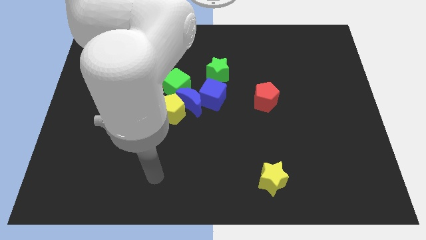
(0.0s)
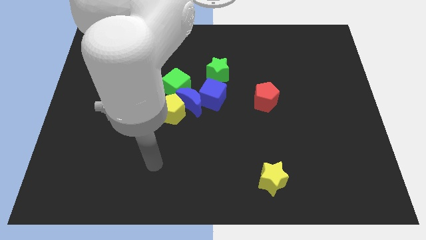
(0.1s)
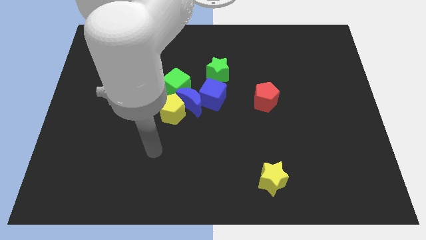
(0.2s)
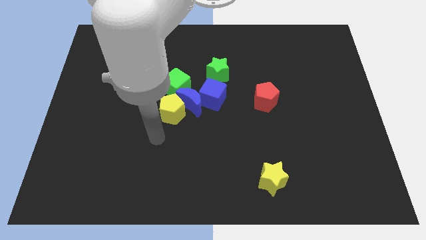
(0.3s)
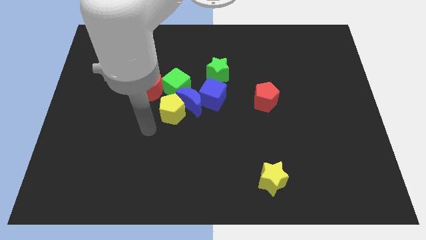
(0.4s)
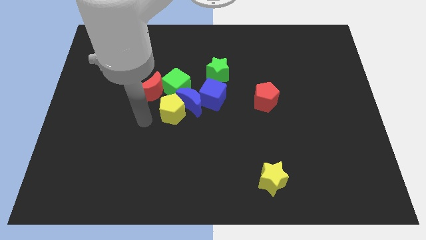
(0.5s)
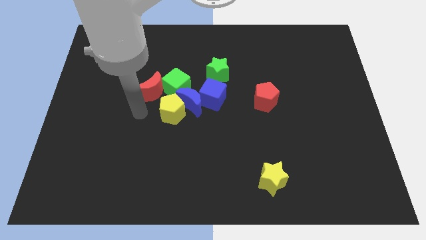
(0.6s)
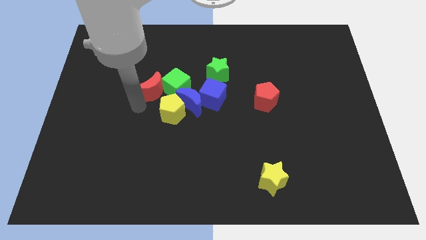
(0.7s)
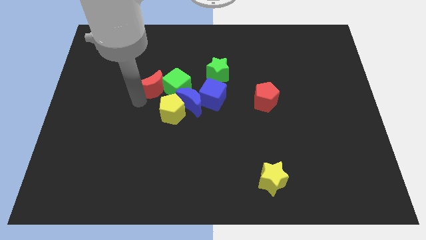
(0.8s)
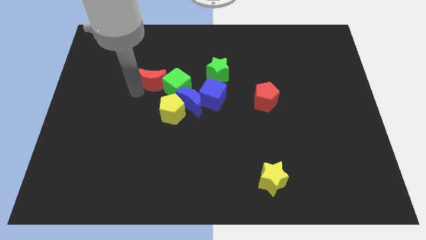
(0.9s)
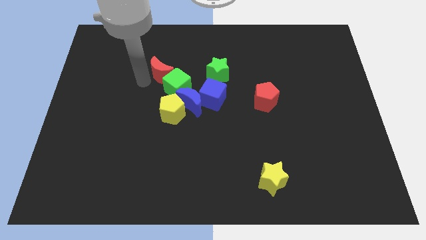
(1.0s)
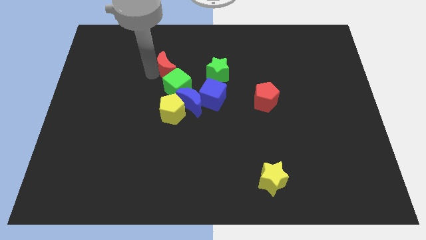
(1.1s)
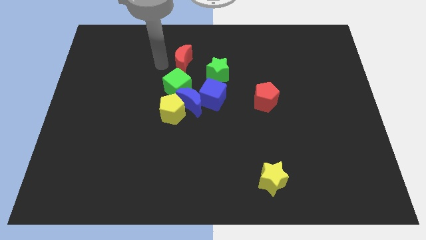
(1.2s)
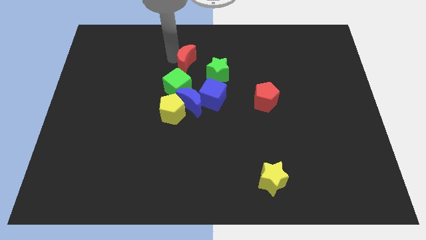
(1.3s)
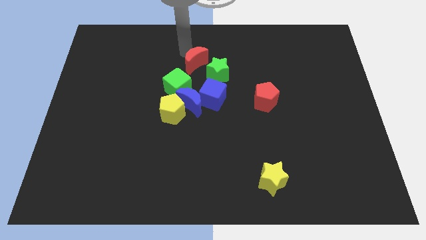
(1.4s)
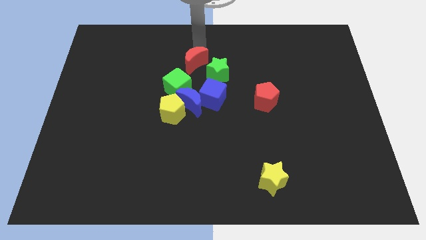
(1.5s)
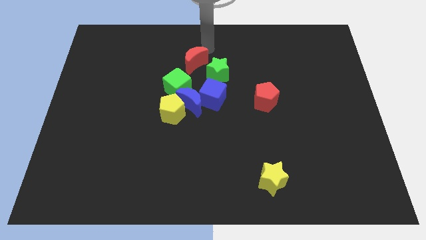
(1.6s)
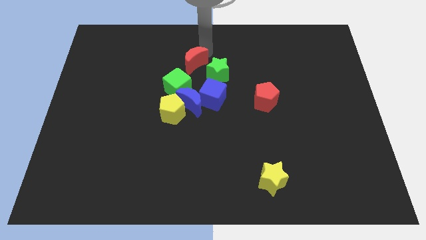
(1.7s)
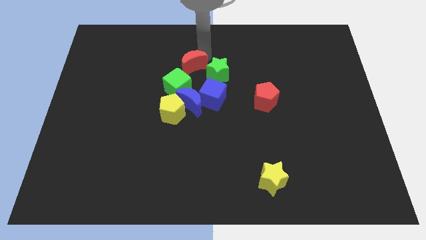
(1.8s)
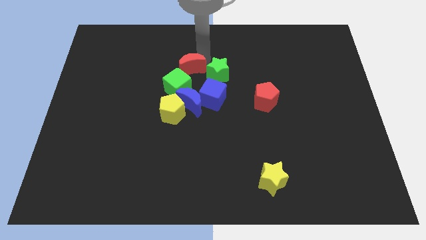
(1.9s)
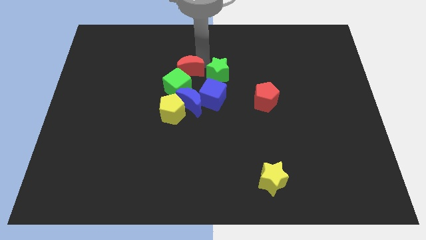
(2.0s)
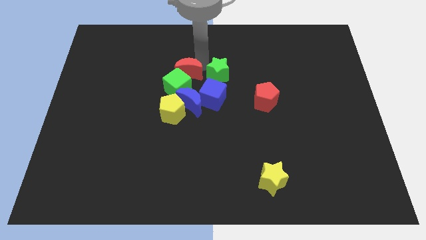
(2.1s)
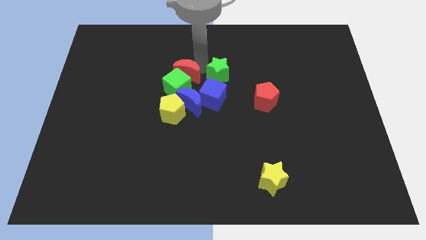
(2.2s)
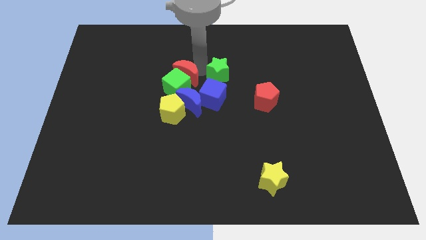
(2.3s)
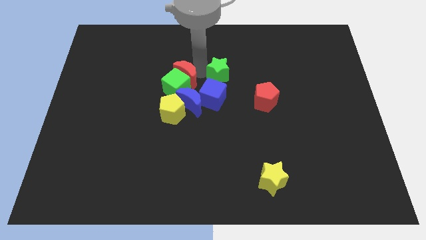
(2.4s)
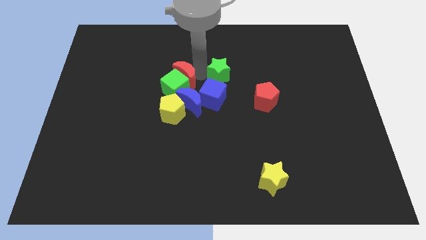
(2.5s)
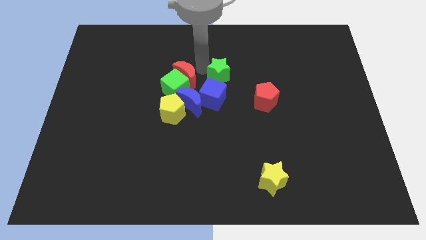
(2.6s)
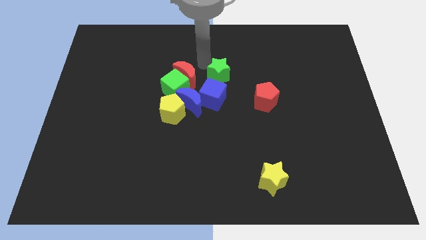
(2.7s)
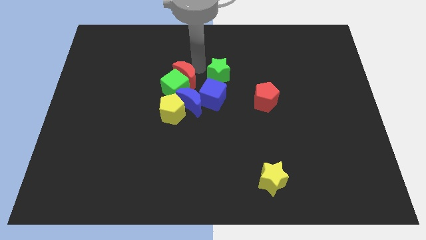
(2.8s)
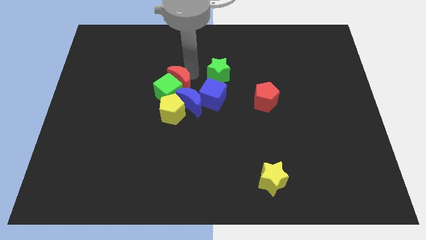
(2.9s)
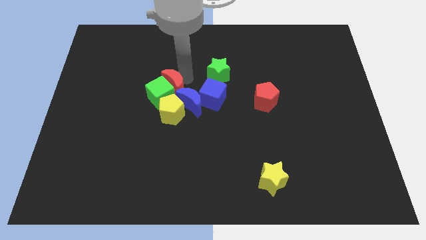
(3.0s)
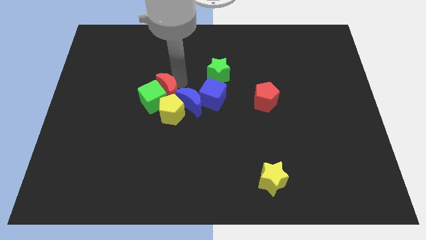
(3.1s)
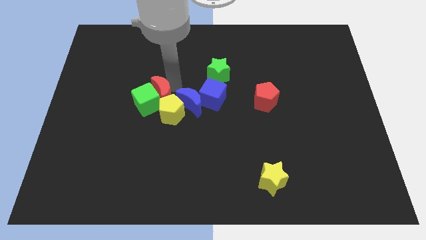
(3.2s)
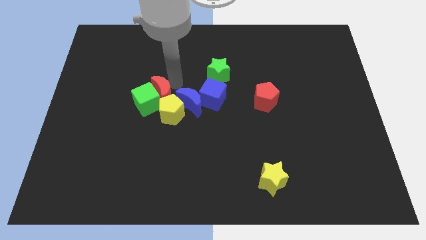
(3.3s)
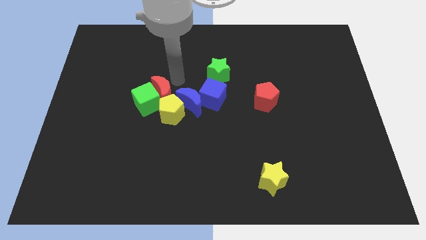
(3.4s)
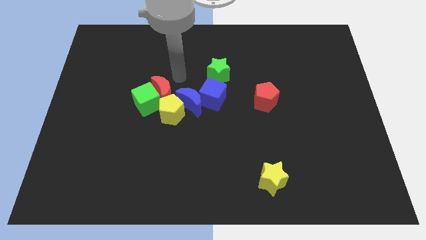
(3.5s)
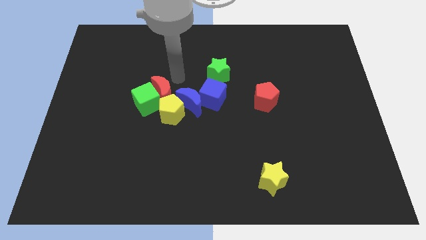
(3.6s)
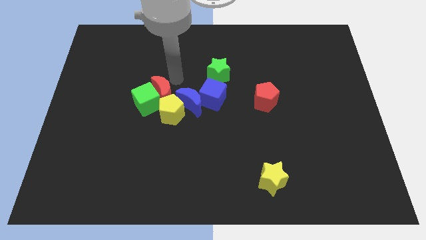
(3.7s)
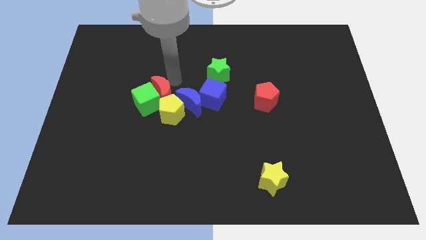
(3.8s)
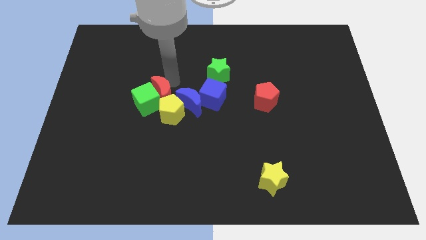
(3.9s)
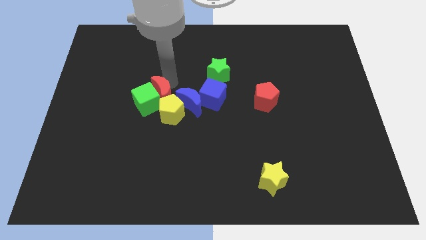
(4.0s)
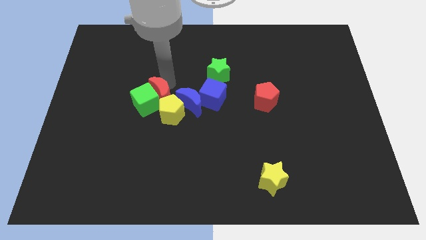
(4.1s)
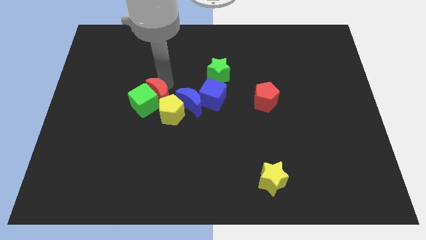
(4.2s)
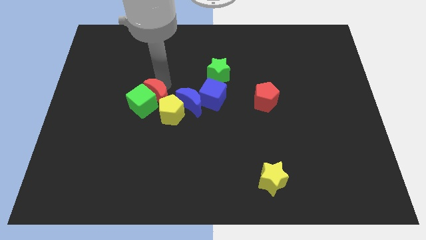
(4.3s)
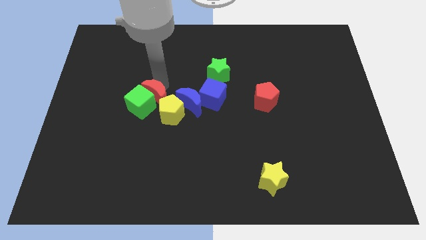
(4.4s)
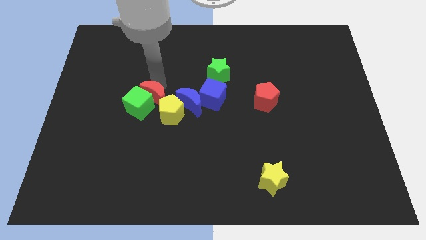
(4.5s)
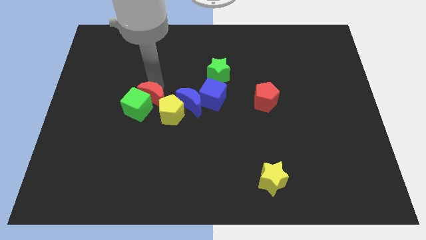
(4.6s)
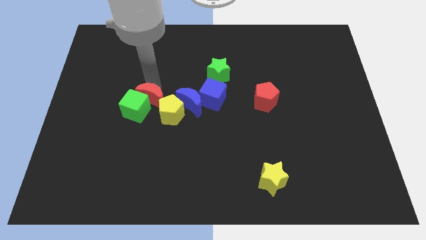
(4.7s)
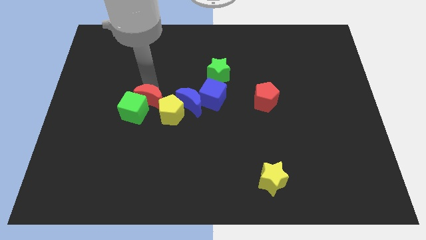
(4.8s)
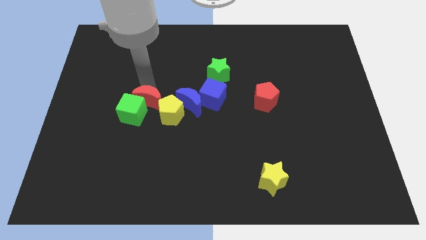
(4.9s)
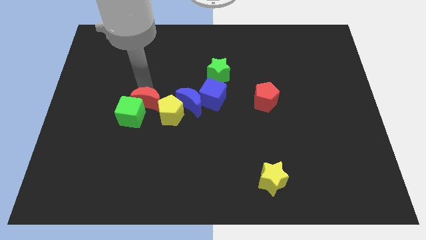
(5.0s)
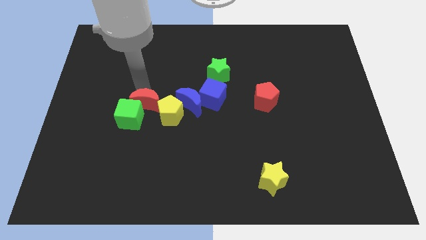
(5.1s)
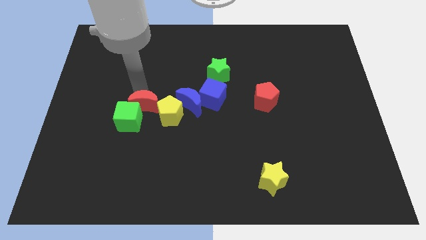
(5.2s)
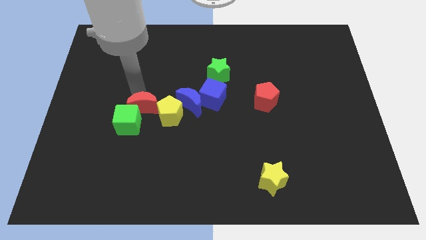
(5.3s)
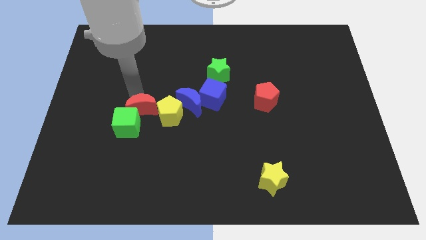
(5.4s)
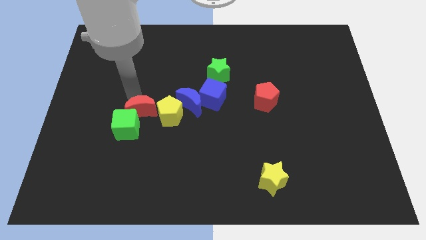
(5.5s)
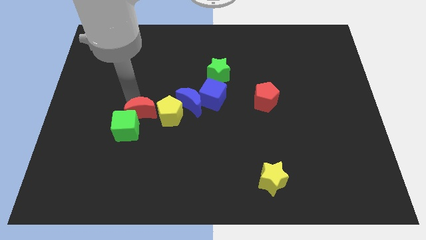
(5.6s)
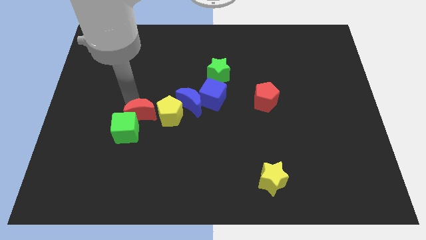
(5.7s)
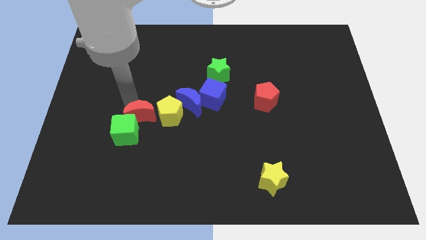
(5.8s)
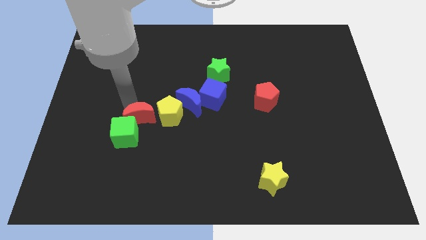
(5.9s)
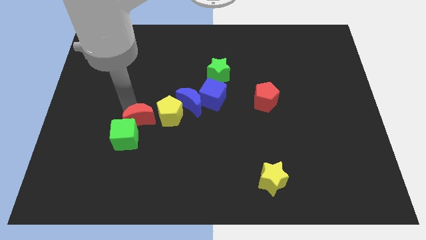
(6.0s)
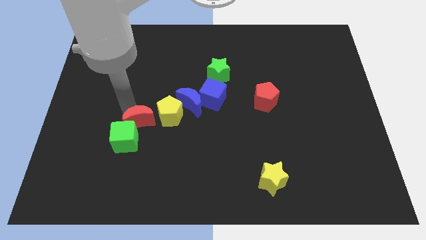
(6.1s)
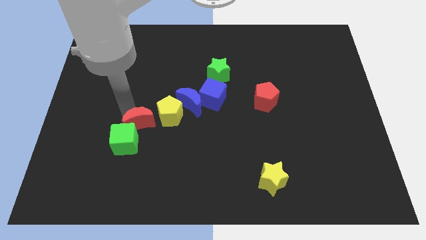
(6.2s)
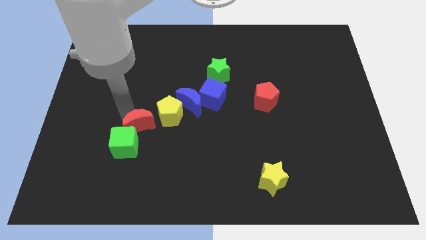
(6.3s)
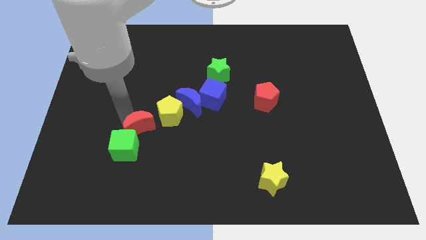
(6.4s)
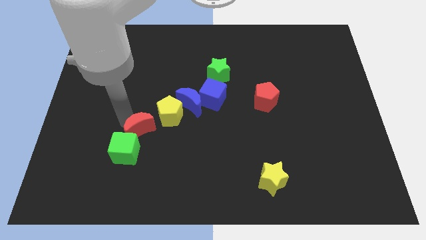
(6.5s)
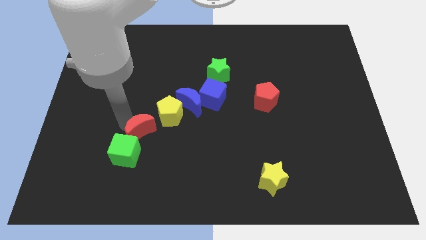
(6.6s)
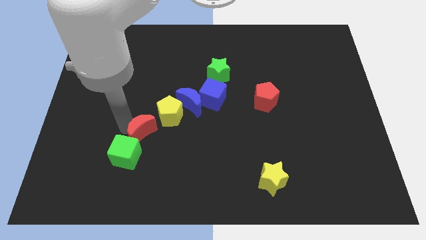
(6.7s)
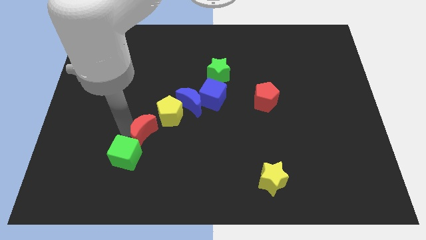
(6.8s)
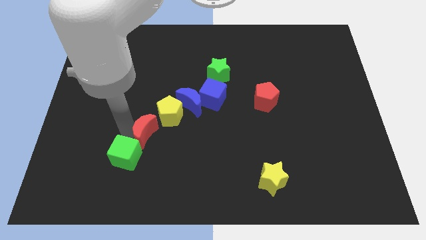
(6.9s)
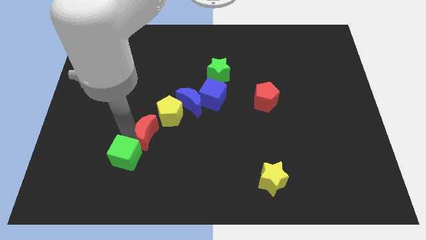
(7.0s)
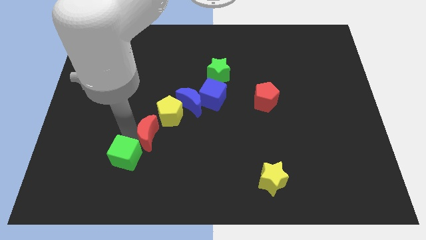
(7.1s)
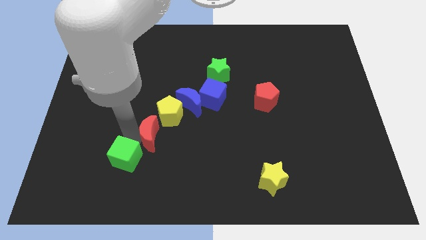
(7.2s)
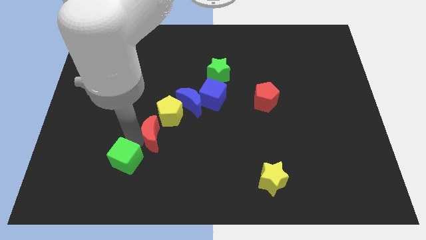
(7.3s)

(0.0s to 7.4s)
move the red moon a bit down and right diagonally

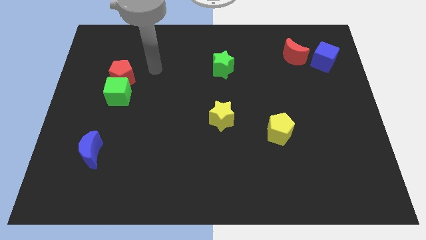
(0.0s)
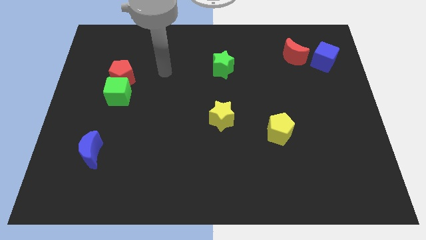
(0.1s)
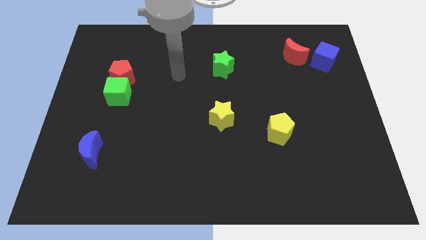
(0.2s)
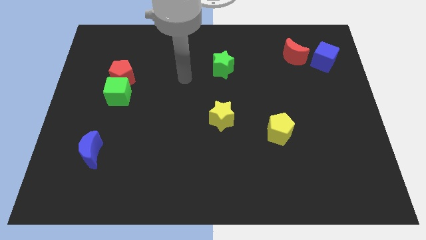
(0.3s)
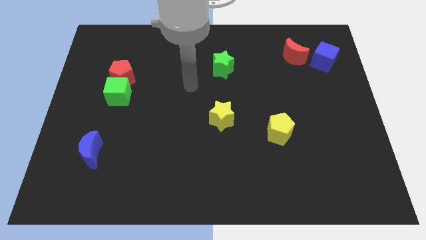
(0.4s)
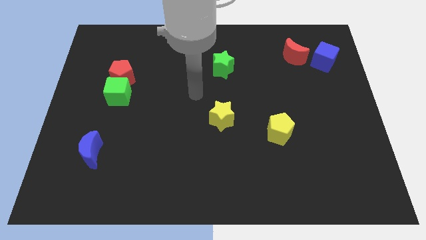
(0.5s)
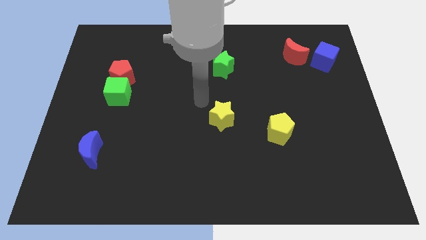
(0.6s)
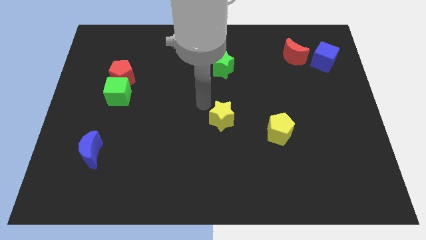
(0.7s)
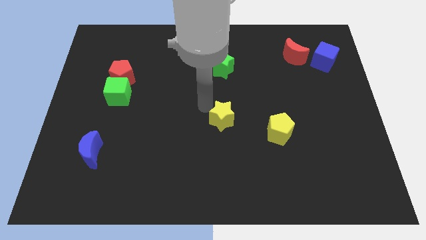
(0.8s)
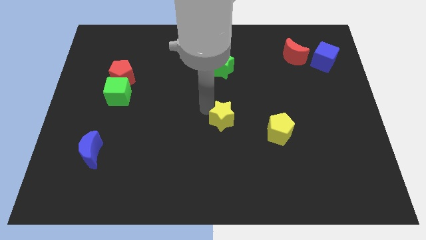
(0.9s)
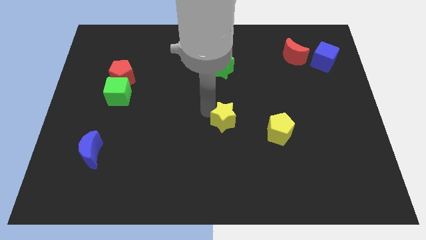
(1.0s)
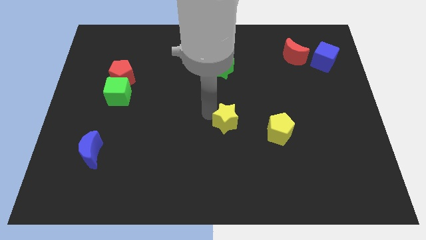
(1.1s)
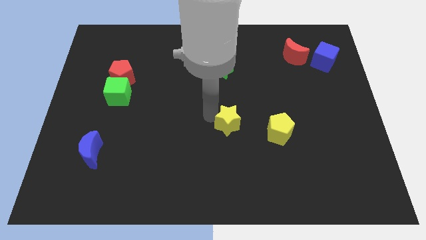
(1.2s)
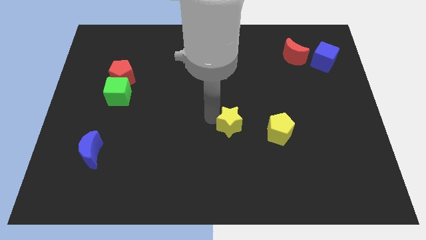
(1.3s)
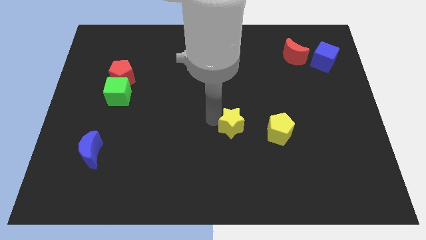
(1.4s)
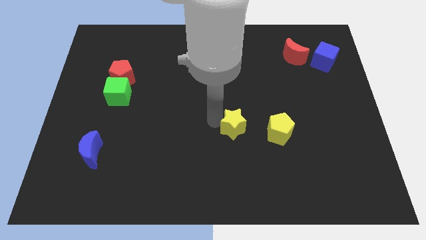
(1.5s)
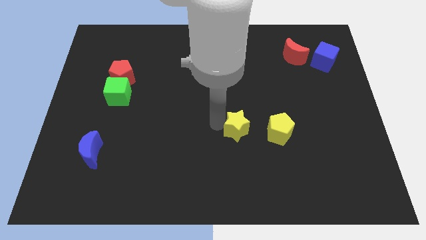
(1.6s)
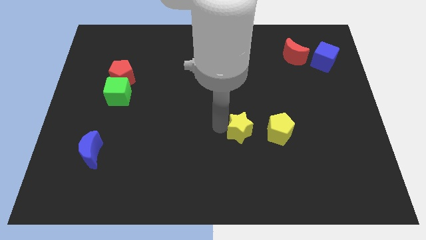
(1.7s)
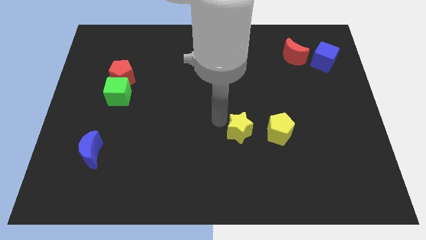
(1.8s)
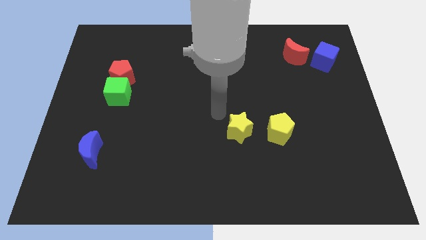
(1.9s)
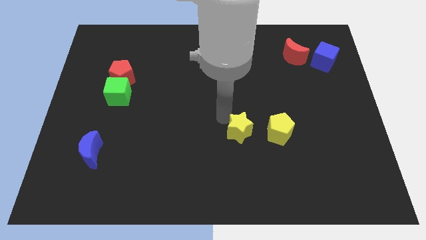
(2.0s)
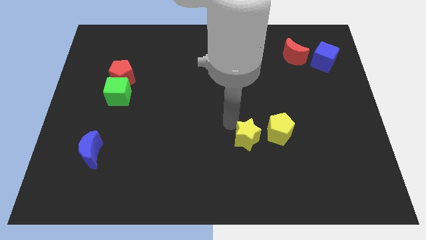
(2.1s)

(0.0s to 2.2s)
move the yellow star downwards and then right somewhat
